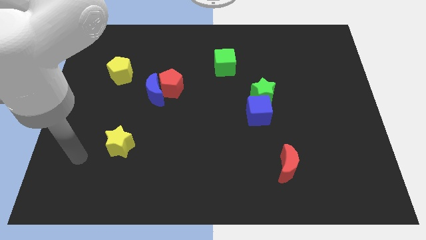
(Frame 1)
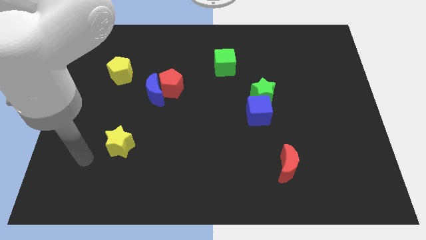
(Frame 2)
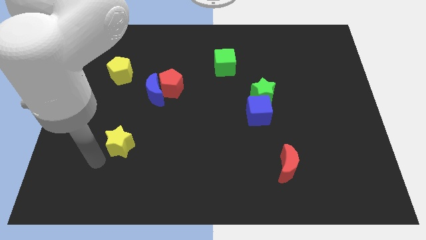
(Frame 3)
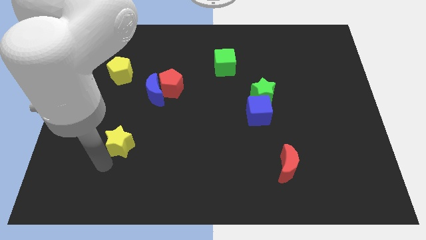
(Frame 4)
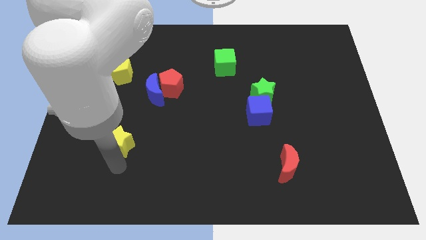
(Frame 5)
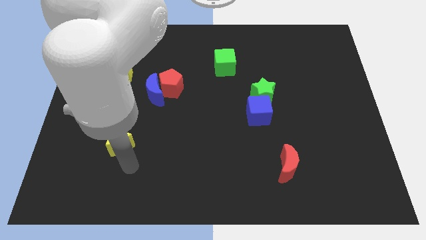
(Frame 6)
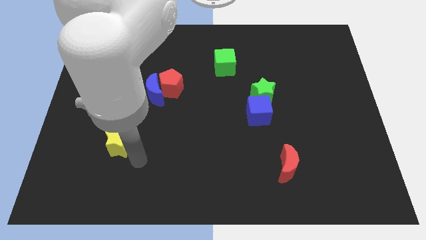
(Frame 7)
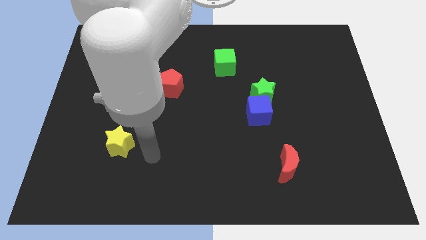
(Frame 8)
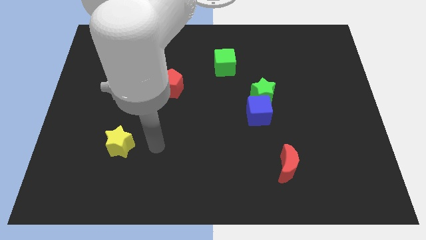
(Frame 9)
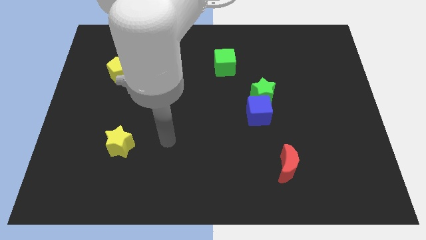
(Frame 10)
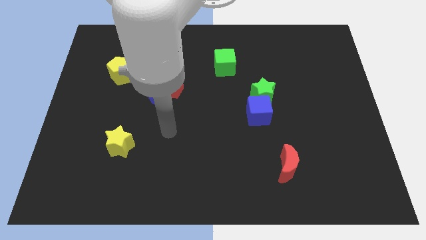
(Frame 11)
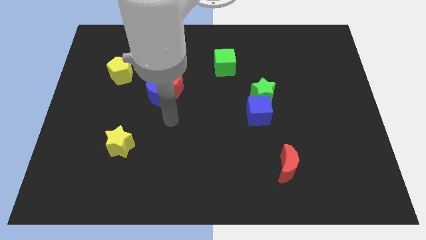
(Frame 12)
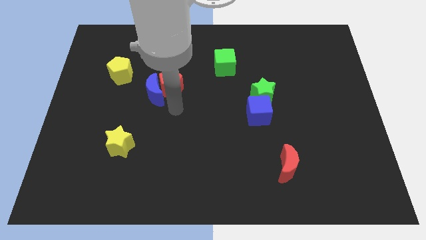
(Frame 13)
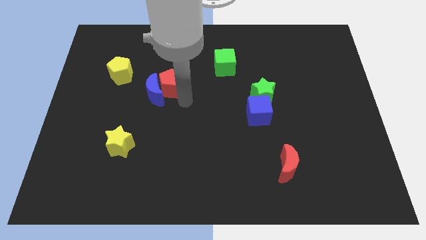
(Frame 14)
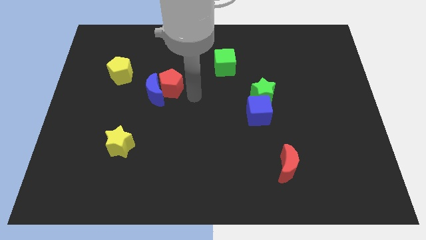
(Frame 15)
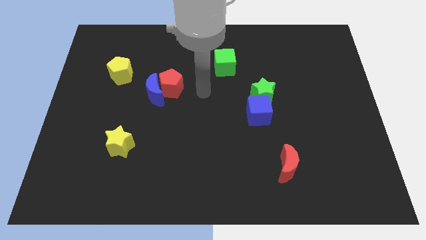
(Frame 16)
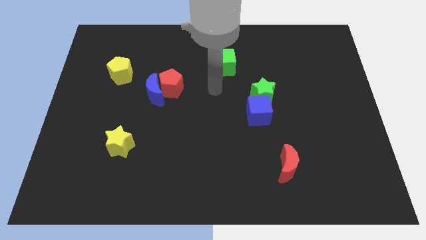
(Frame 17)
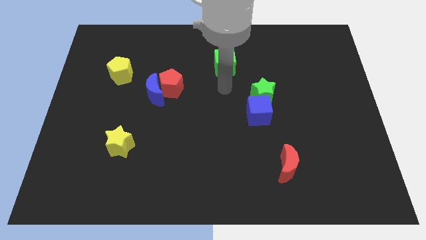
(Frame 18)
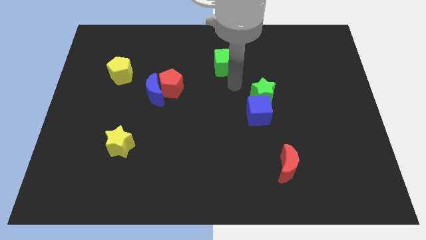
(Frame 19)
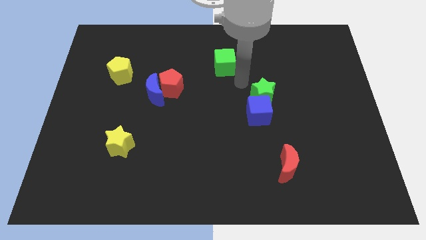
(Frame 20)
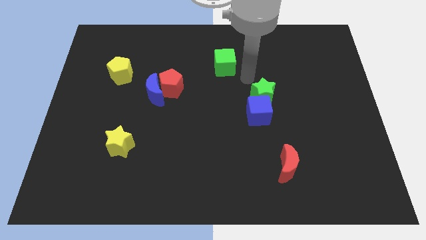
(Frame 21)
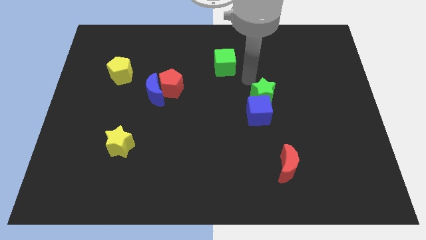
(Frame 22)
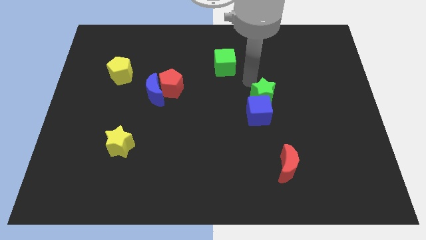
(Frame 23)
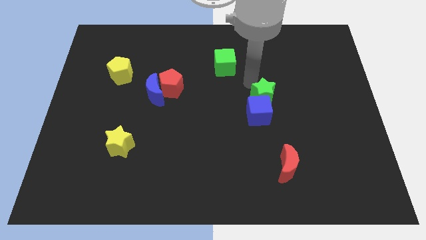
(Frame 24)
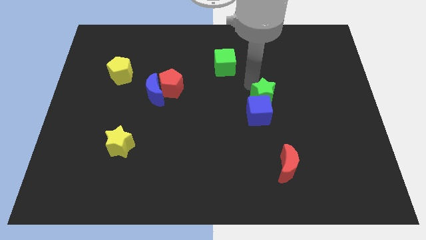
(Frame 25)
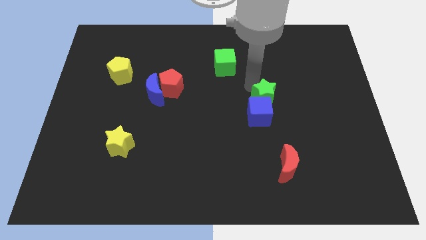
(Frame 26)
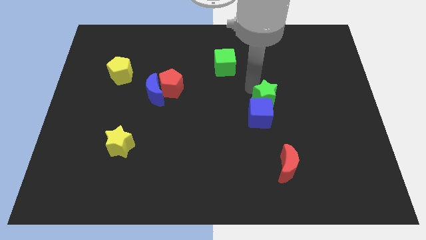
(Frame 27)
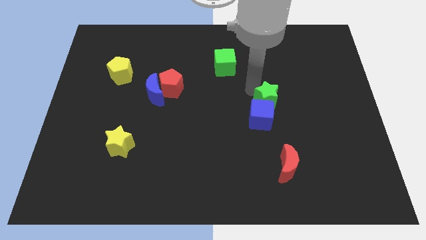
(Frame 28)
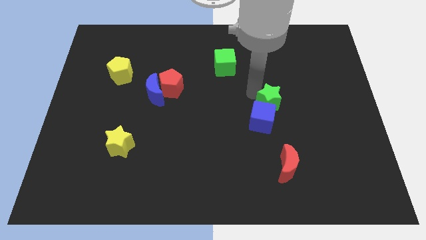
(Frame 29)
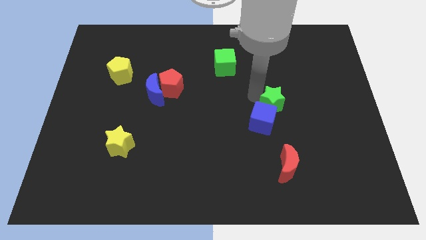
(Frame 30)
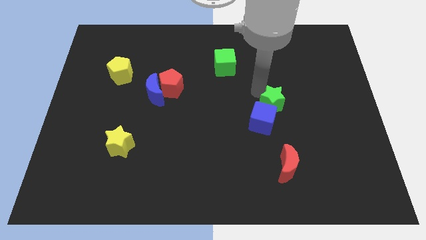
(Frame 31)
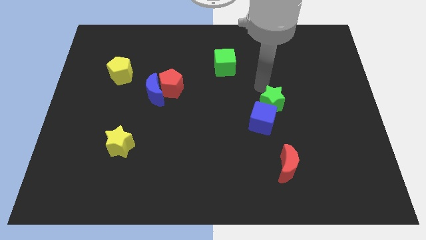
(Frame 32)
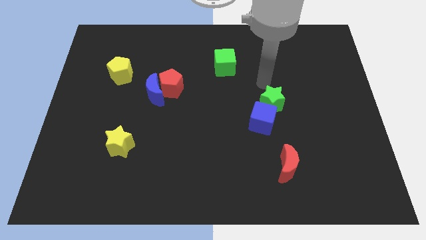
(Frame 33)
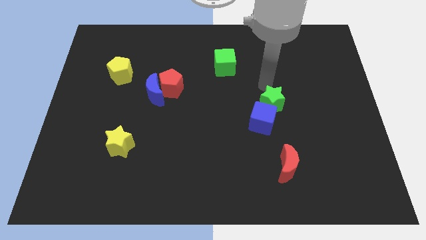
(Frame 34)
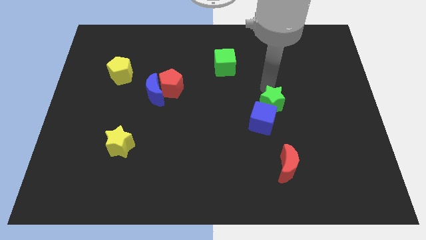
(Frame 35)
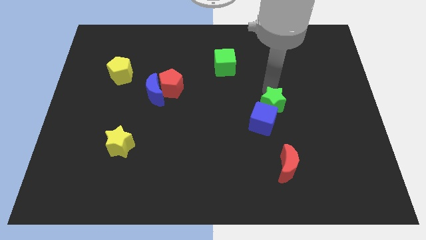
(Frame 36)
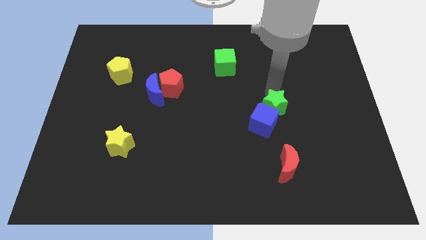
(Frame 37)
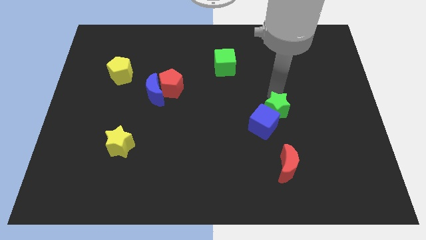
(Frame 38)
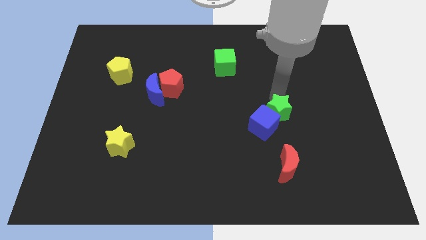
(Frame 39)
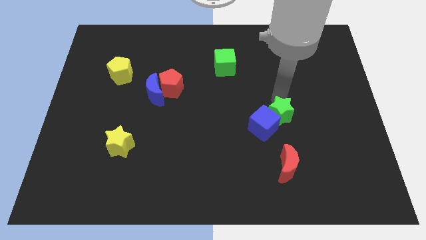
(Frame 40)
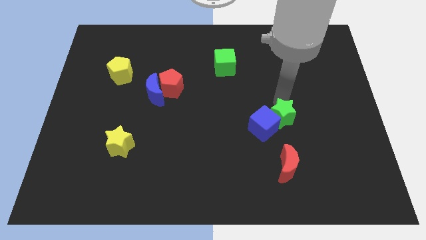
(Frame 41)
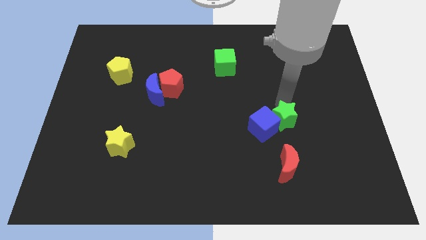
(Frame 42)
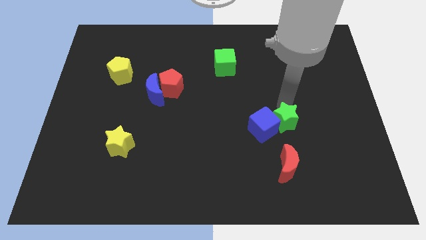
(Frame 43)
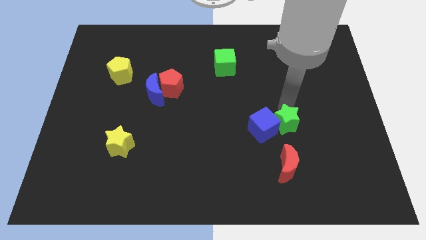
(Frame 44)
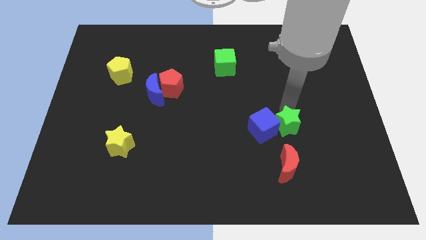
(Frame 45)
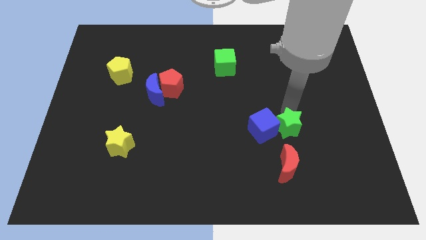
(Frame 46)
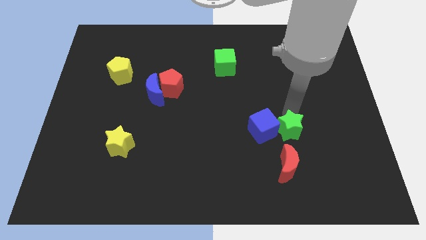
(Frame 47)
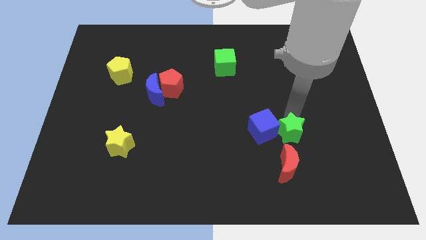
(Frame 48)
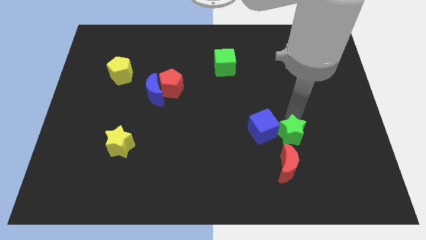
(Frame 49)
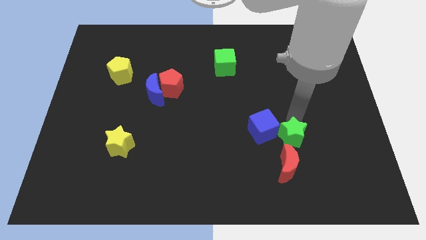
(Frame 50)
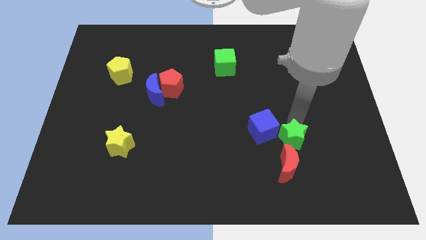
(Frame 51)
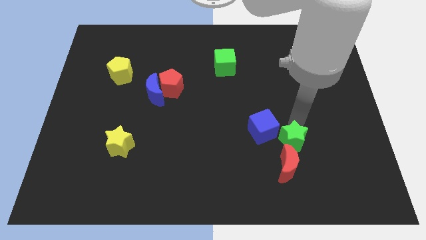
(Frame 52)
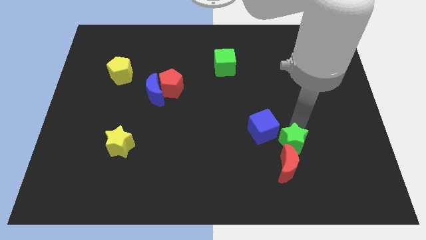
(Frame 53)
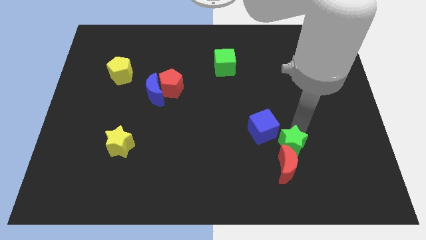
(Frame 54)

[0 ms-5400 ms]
slide the green star close to the red moon

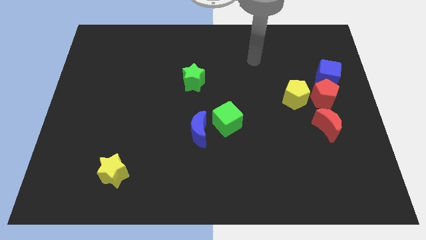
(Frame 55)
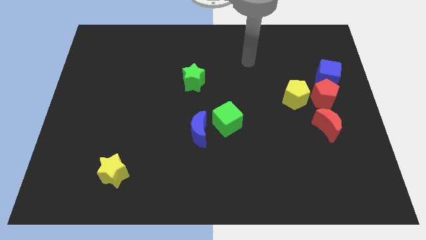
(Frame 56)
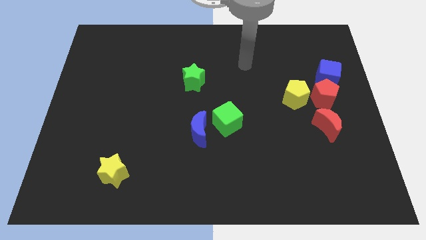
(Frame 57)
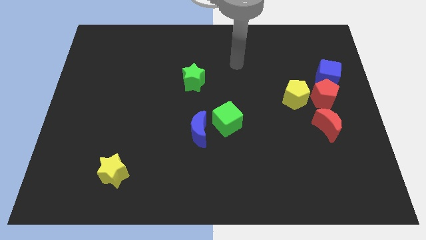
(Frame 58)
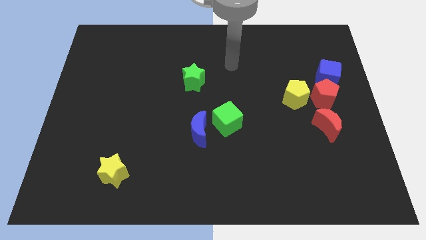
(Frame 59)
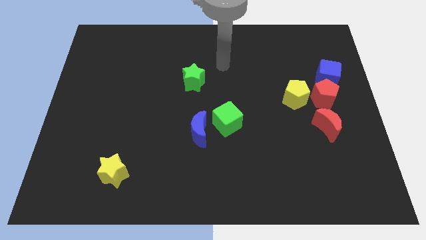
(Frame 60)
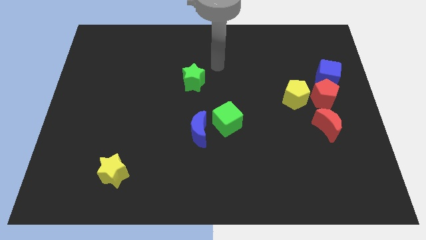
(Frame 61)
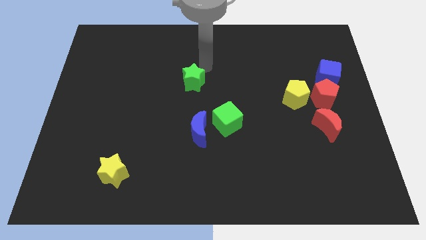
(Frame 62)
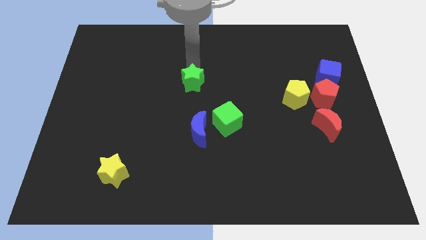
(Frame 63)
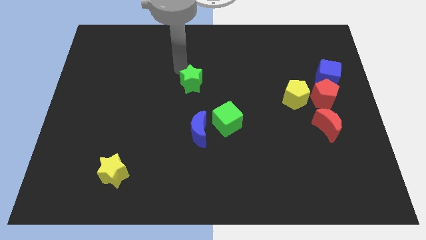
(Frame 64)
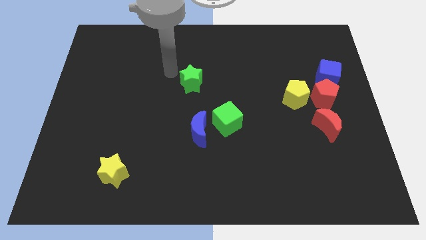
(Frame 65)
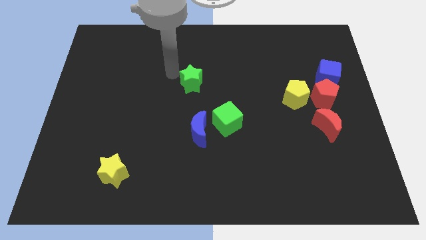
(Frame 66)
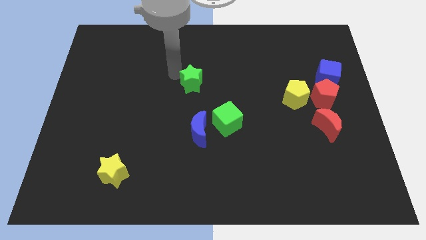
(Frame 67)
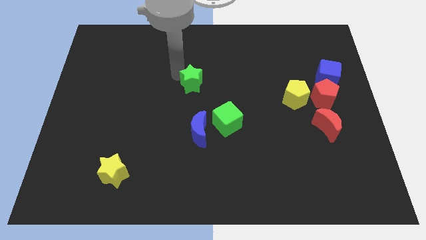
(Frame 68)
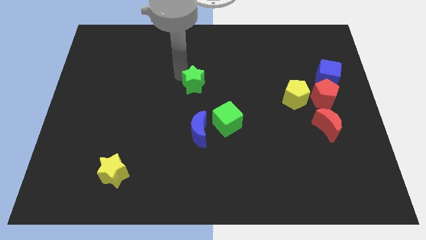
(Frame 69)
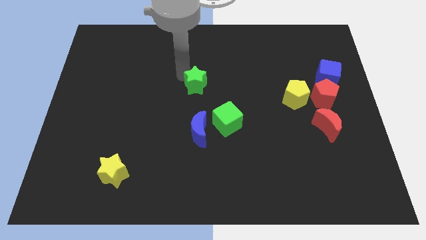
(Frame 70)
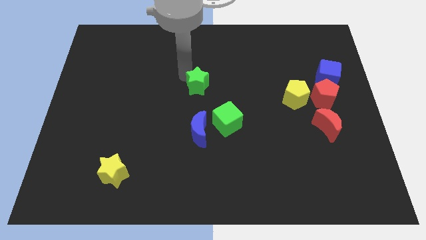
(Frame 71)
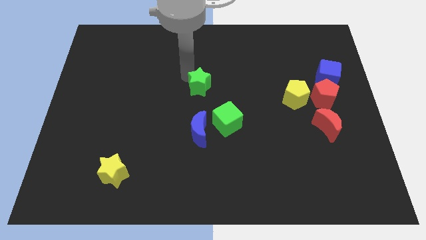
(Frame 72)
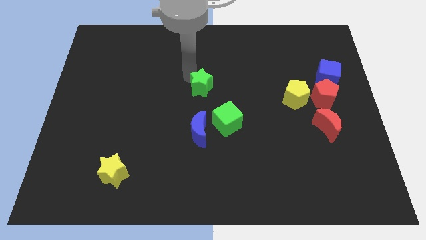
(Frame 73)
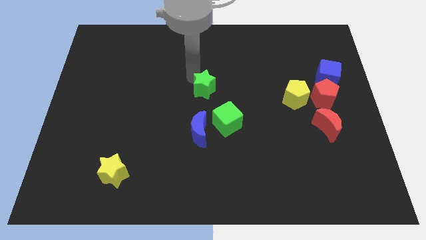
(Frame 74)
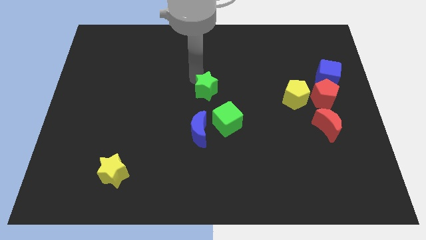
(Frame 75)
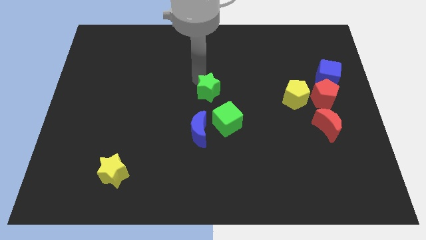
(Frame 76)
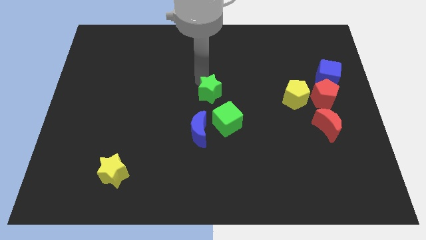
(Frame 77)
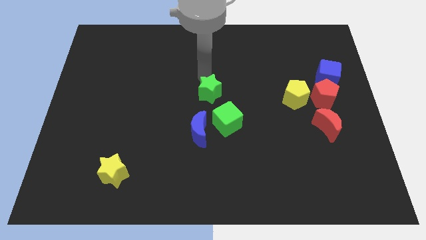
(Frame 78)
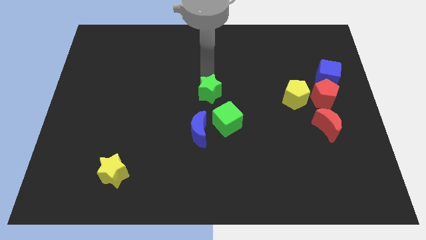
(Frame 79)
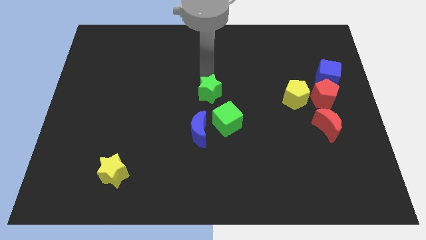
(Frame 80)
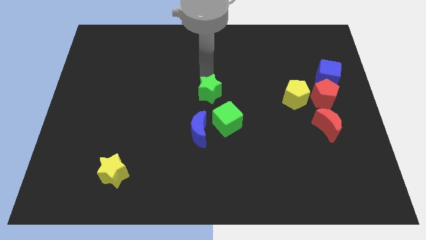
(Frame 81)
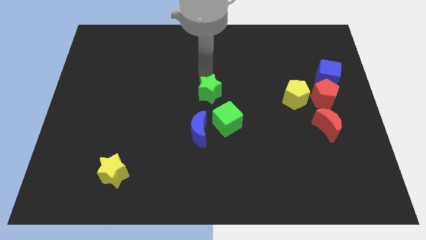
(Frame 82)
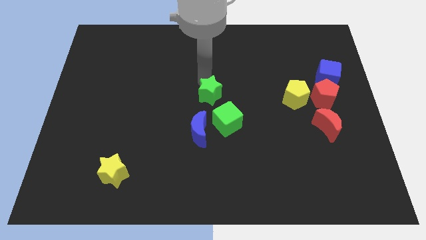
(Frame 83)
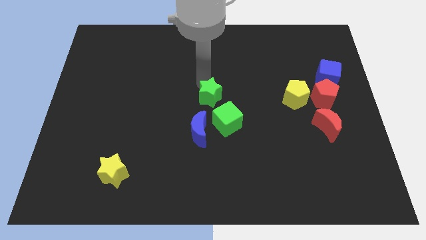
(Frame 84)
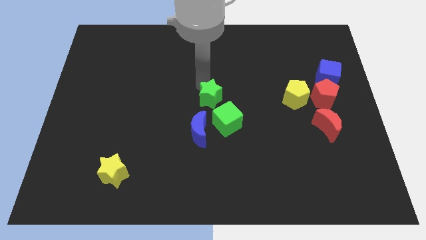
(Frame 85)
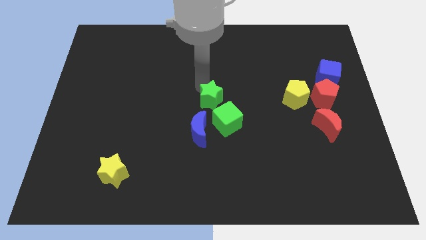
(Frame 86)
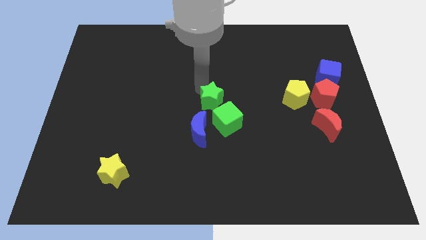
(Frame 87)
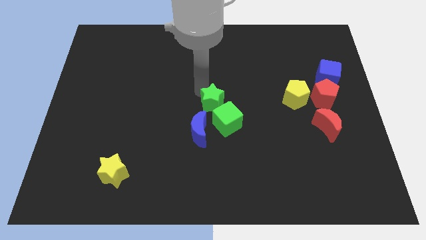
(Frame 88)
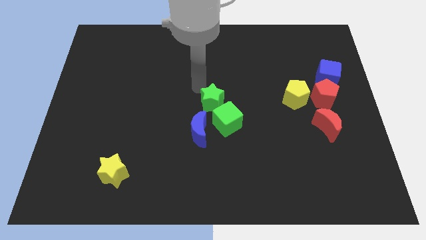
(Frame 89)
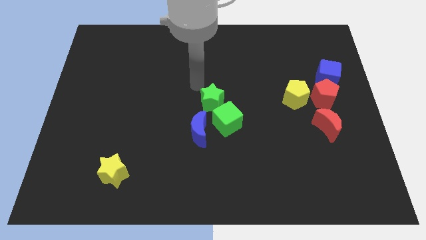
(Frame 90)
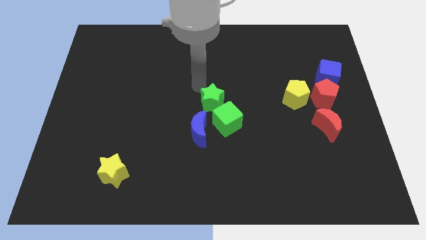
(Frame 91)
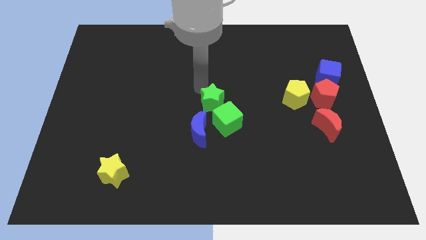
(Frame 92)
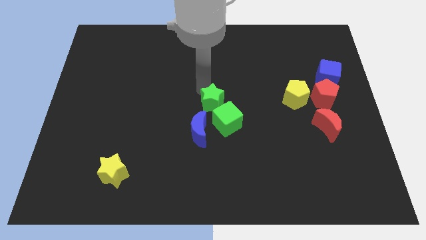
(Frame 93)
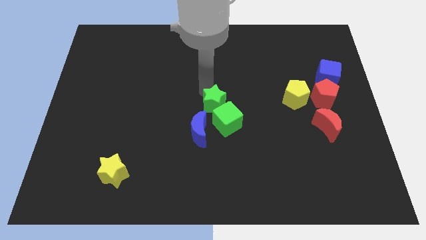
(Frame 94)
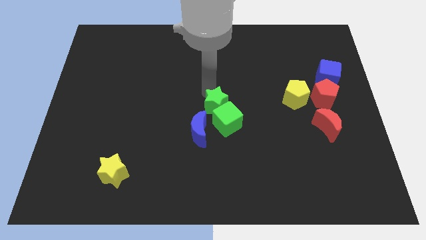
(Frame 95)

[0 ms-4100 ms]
put the green star close to the green cube
